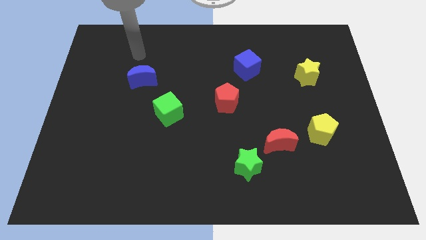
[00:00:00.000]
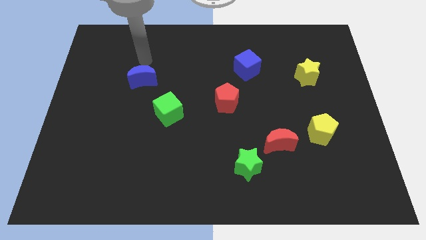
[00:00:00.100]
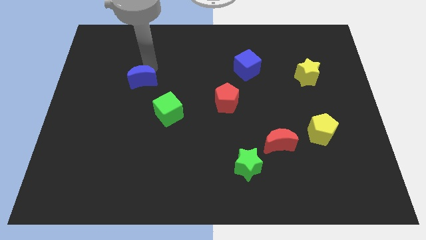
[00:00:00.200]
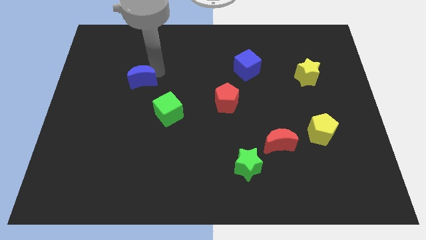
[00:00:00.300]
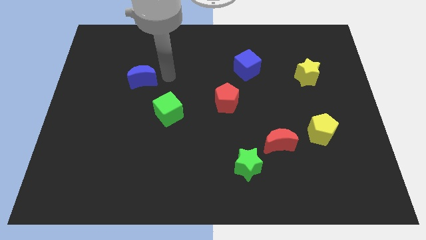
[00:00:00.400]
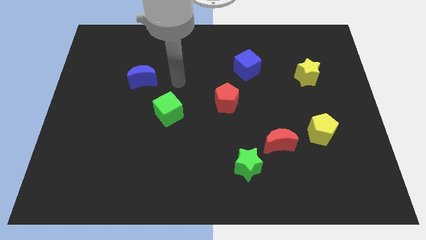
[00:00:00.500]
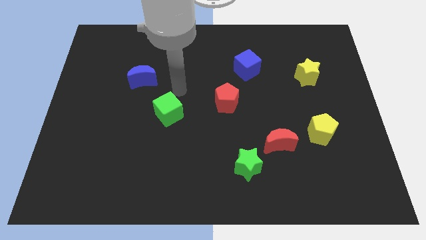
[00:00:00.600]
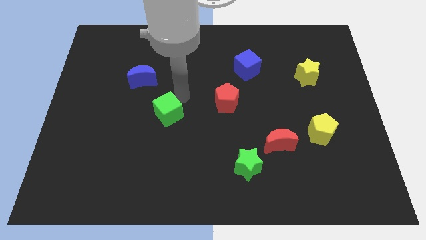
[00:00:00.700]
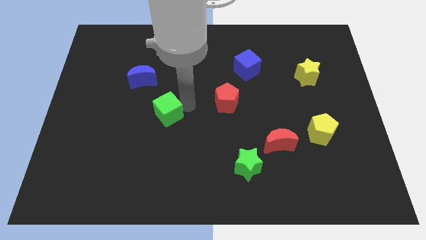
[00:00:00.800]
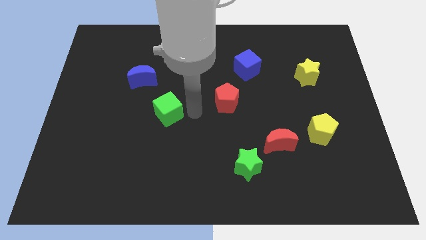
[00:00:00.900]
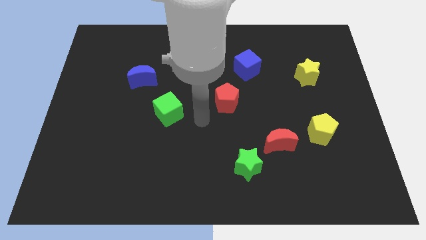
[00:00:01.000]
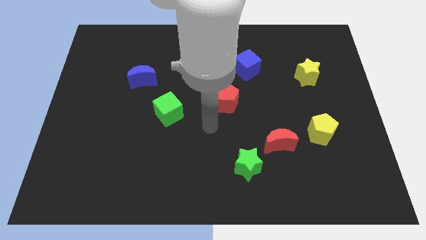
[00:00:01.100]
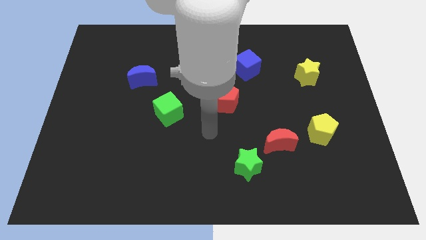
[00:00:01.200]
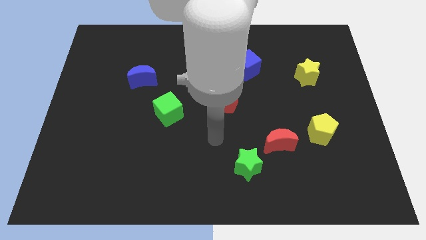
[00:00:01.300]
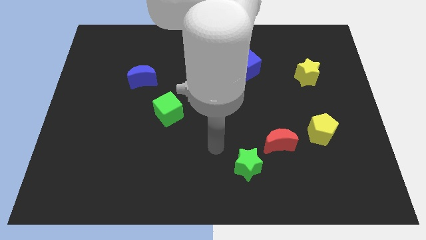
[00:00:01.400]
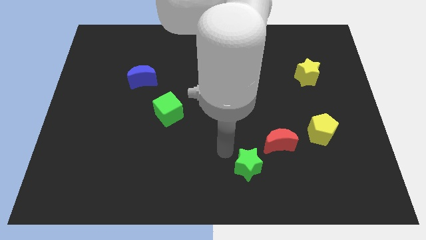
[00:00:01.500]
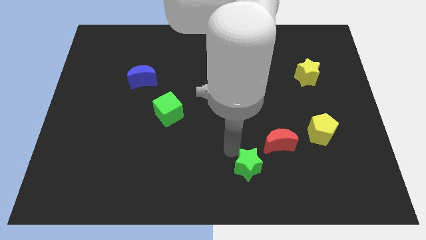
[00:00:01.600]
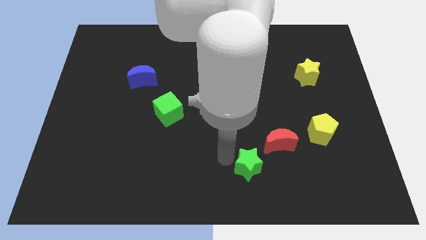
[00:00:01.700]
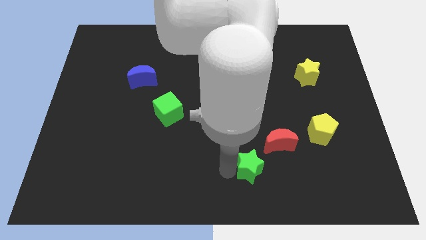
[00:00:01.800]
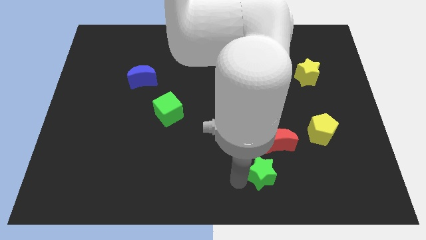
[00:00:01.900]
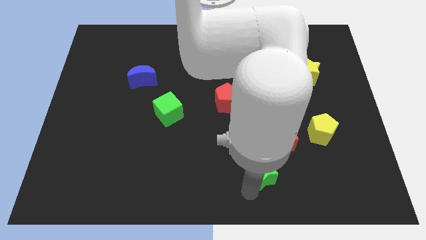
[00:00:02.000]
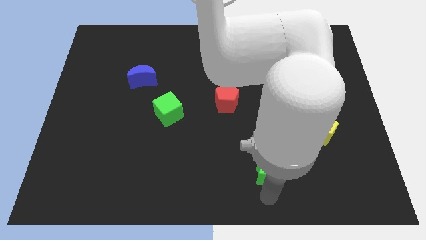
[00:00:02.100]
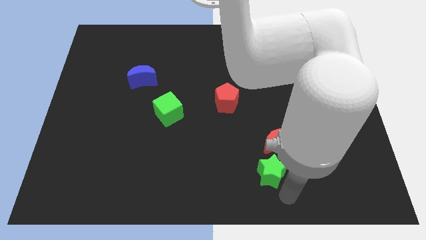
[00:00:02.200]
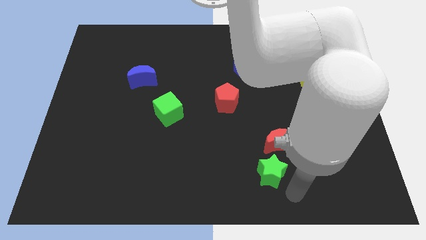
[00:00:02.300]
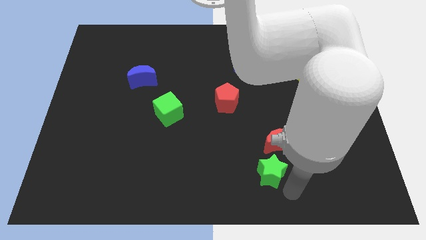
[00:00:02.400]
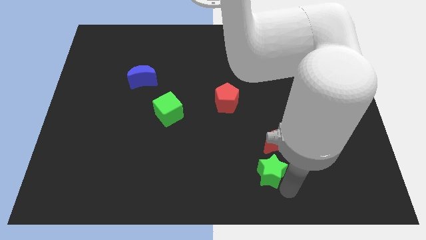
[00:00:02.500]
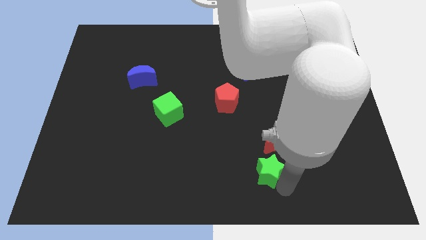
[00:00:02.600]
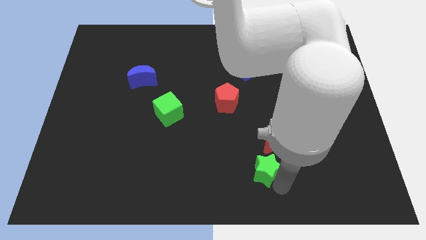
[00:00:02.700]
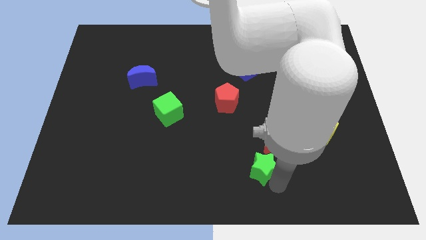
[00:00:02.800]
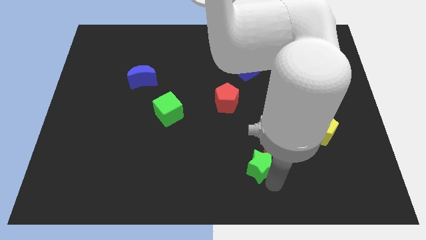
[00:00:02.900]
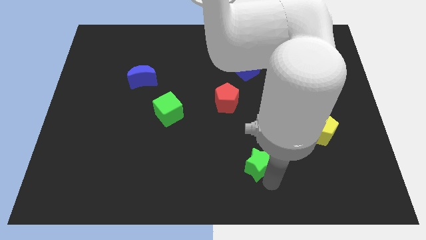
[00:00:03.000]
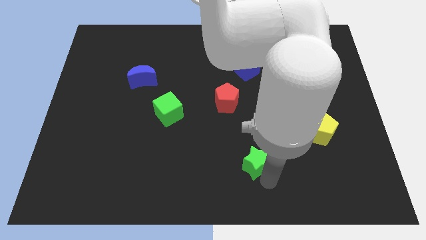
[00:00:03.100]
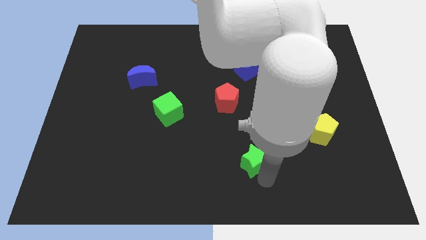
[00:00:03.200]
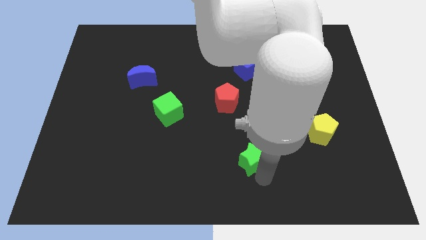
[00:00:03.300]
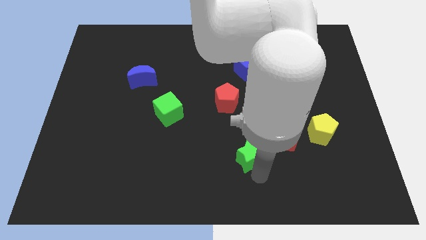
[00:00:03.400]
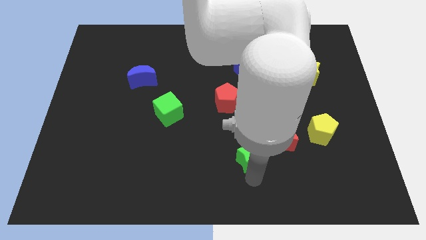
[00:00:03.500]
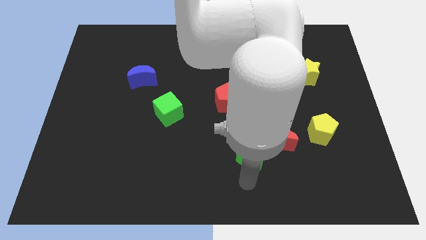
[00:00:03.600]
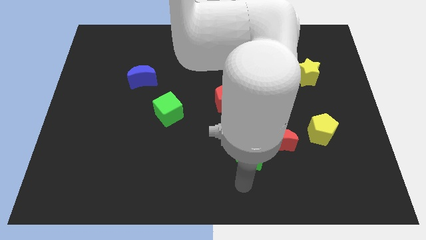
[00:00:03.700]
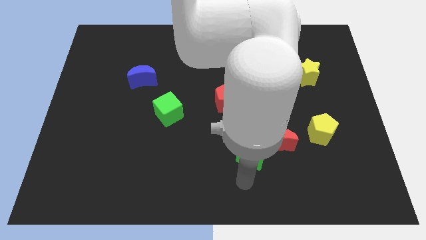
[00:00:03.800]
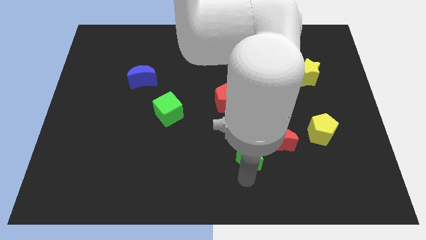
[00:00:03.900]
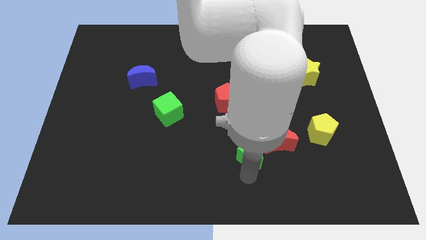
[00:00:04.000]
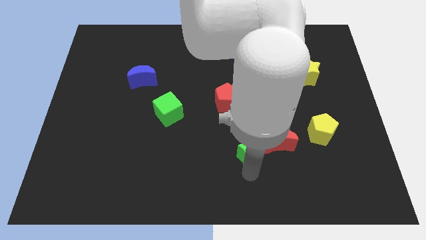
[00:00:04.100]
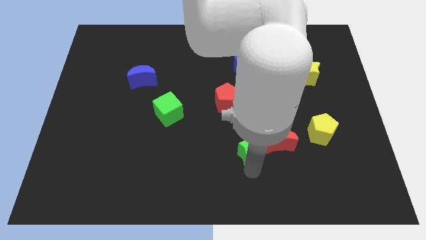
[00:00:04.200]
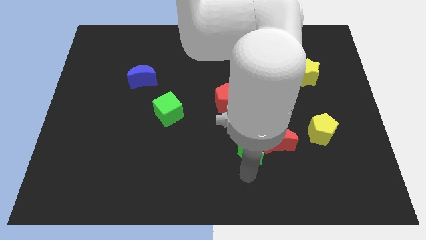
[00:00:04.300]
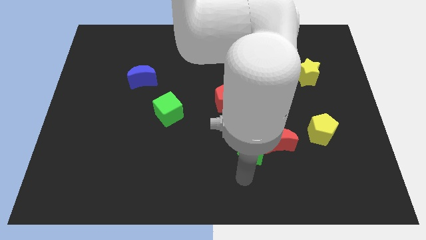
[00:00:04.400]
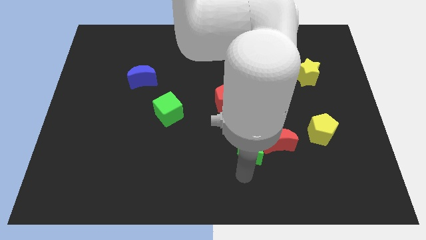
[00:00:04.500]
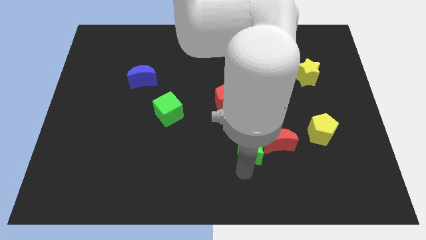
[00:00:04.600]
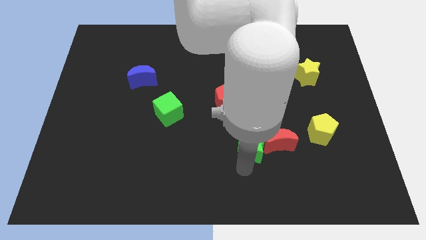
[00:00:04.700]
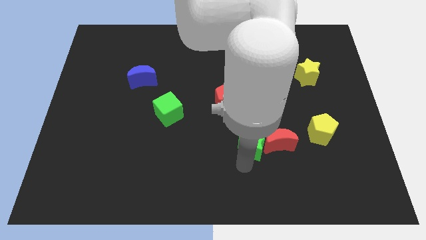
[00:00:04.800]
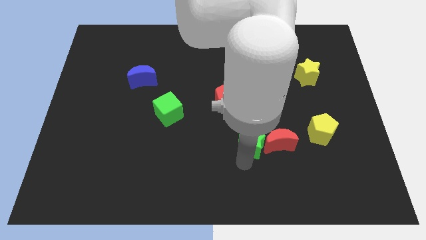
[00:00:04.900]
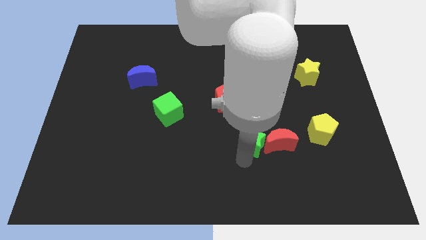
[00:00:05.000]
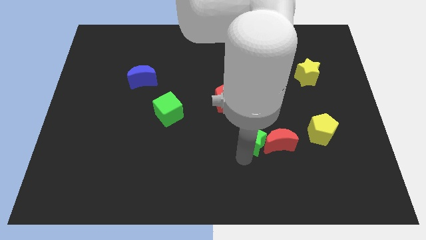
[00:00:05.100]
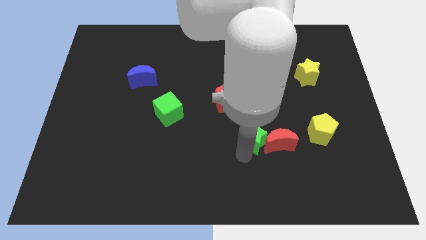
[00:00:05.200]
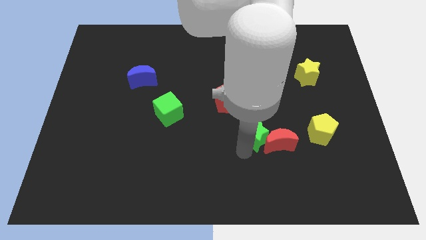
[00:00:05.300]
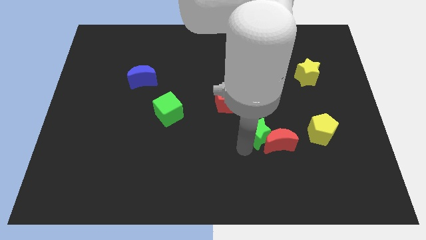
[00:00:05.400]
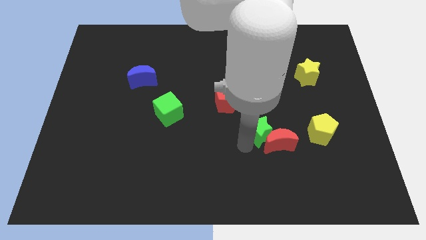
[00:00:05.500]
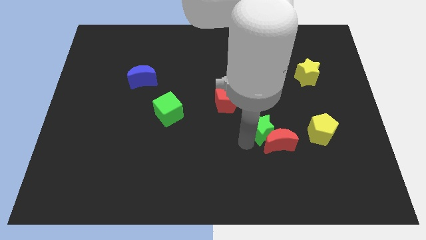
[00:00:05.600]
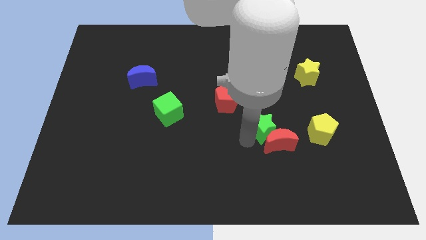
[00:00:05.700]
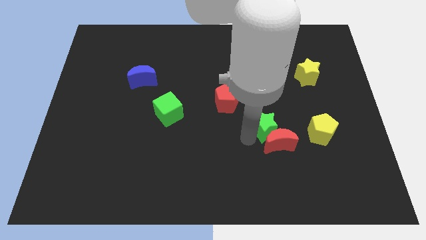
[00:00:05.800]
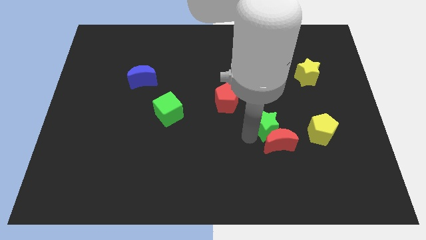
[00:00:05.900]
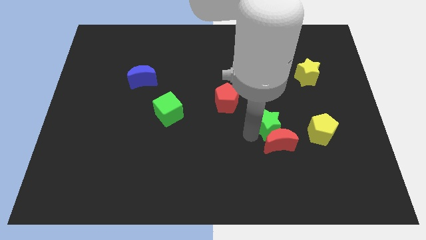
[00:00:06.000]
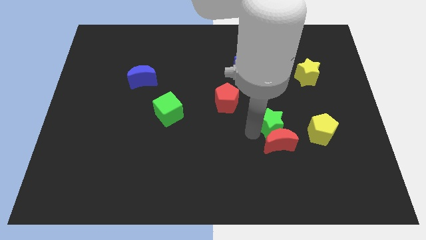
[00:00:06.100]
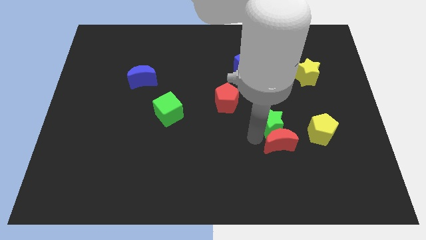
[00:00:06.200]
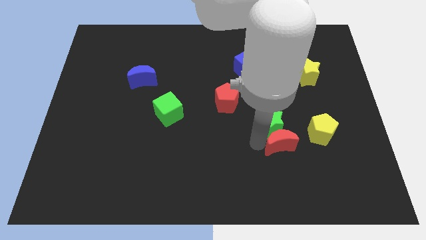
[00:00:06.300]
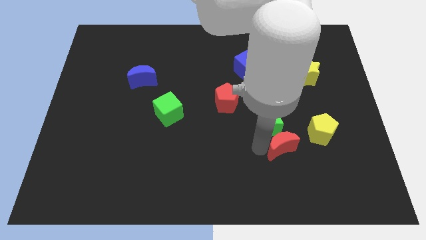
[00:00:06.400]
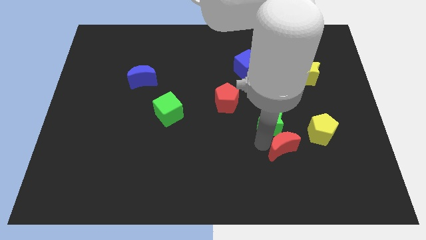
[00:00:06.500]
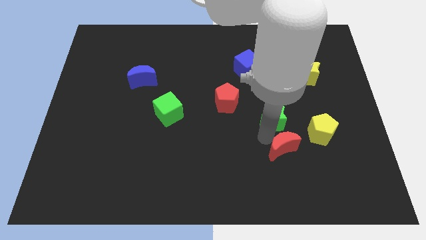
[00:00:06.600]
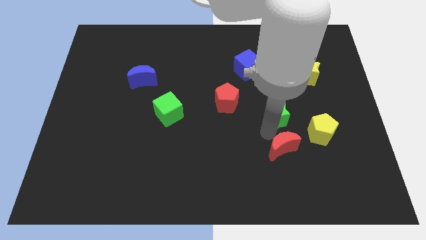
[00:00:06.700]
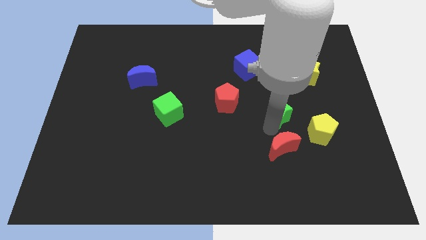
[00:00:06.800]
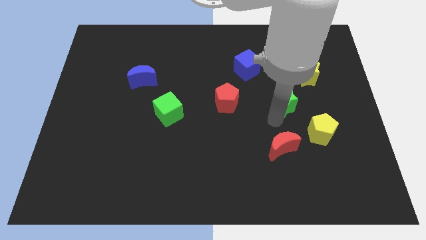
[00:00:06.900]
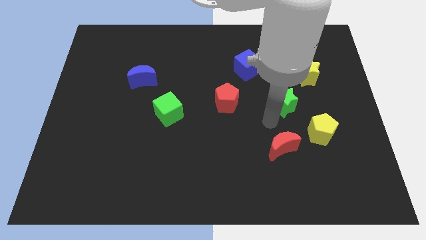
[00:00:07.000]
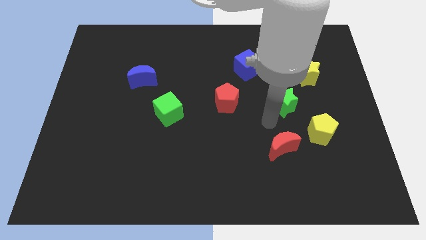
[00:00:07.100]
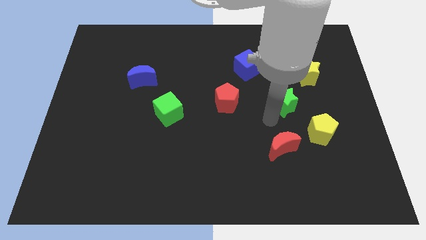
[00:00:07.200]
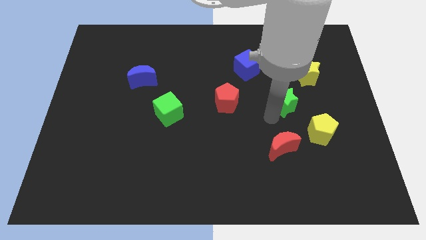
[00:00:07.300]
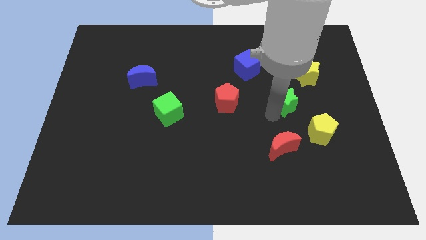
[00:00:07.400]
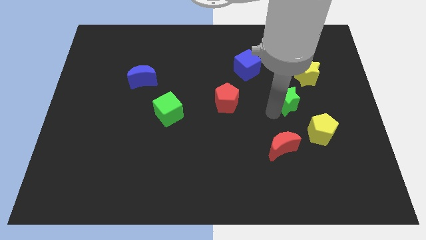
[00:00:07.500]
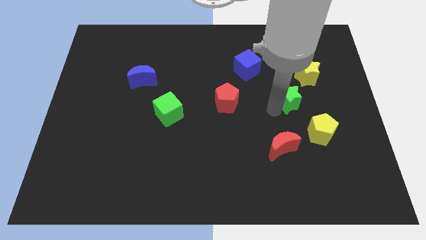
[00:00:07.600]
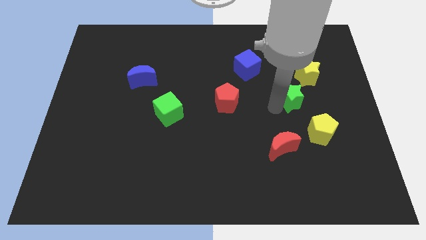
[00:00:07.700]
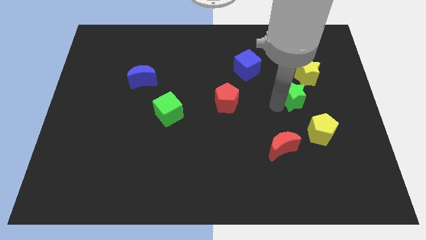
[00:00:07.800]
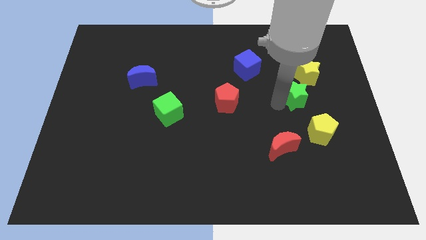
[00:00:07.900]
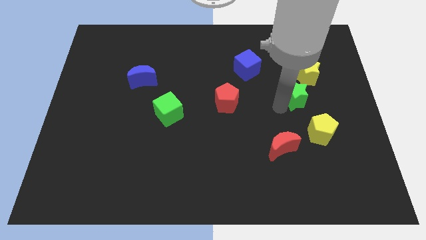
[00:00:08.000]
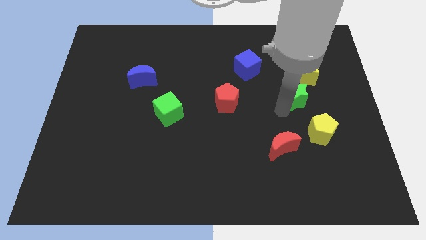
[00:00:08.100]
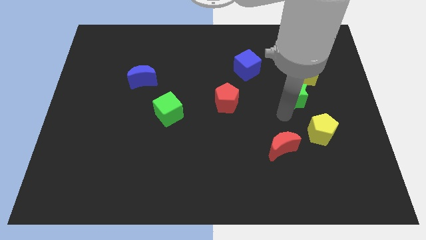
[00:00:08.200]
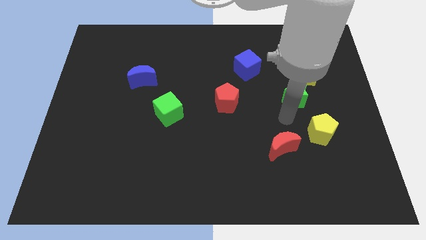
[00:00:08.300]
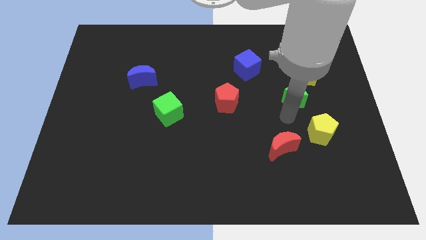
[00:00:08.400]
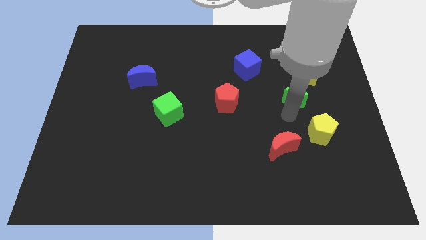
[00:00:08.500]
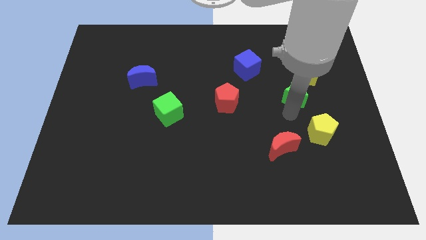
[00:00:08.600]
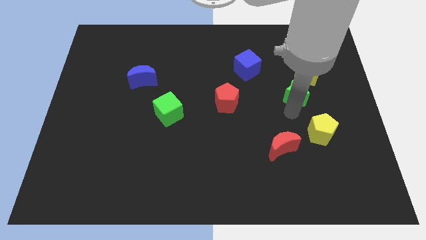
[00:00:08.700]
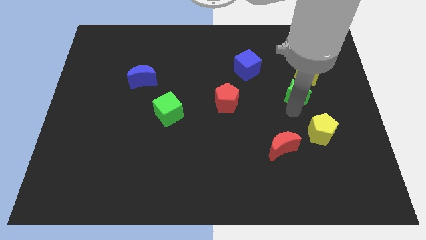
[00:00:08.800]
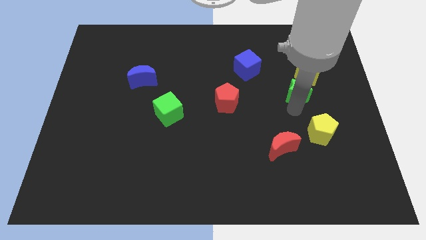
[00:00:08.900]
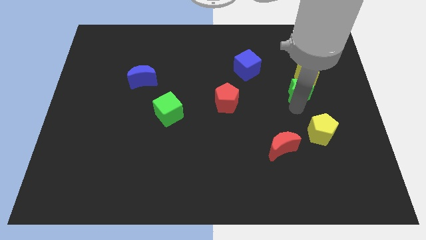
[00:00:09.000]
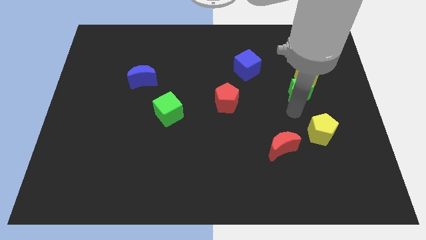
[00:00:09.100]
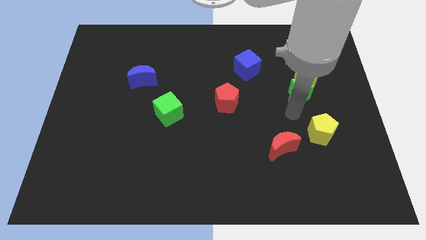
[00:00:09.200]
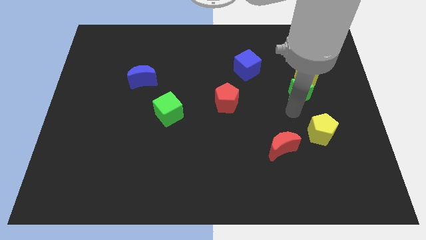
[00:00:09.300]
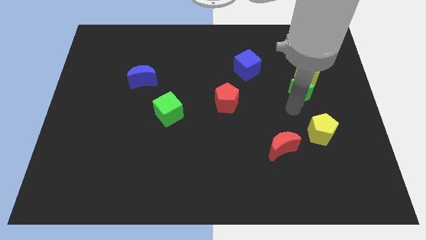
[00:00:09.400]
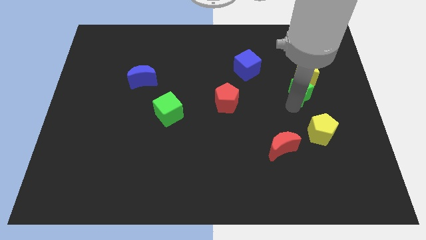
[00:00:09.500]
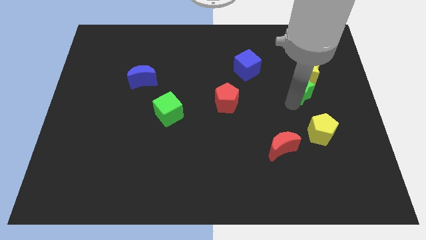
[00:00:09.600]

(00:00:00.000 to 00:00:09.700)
move the green star towards the yellow star
